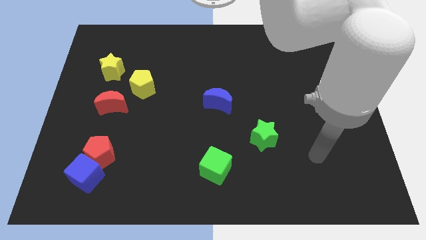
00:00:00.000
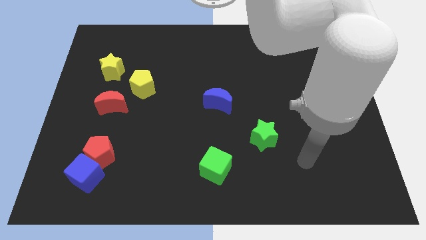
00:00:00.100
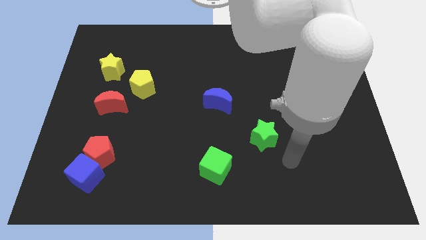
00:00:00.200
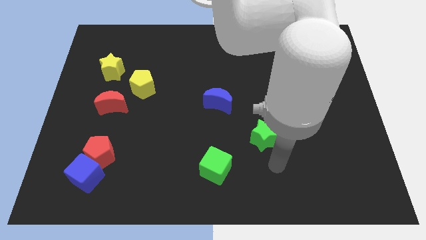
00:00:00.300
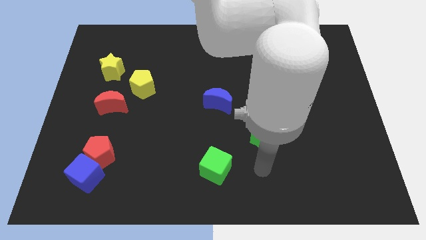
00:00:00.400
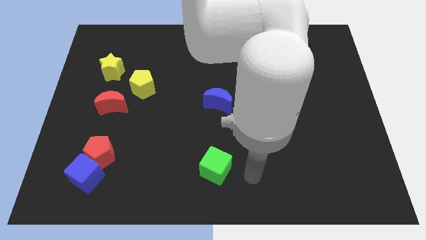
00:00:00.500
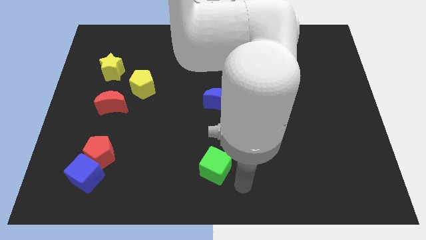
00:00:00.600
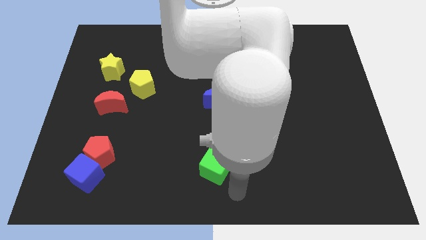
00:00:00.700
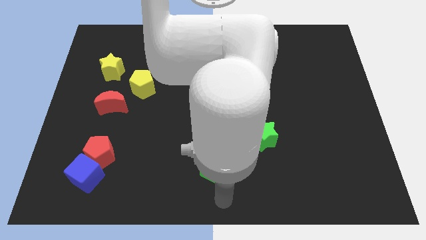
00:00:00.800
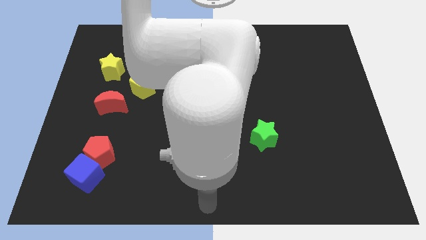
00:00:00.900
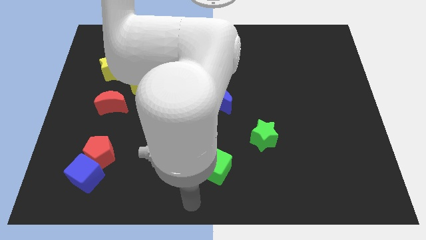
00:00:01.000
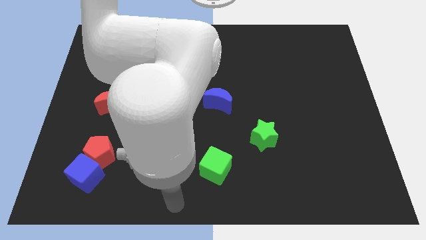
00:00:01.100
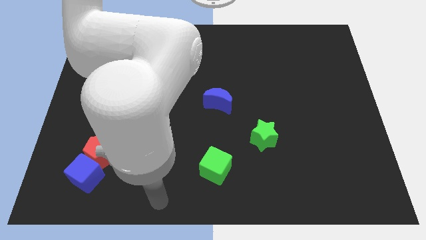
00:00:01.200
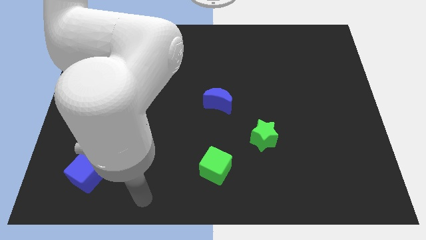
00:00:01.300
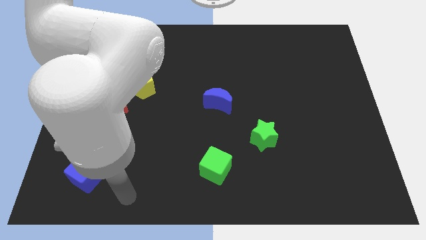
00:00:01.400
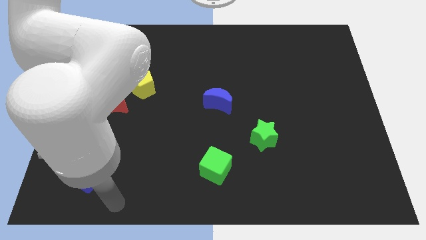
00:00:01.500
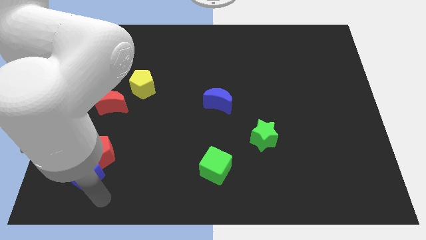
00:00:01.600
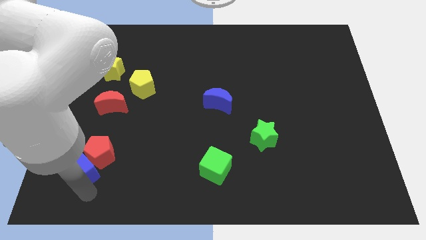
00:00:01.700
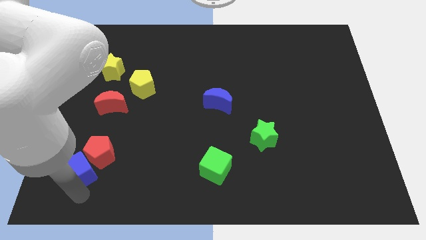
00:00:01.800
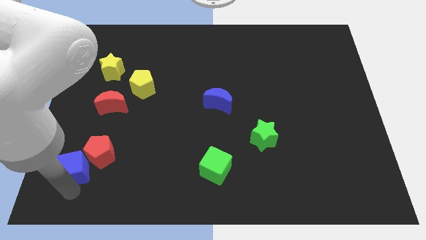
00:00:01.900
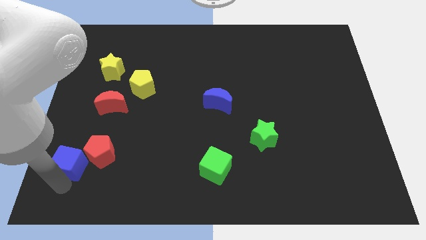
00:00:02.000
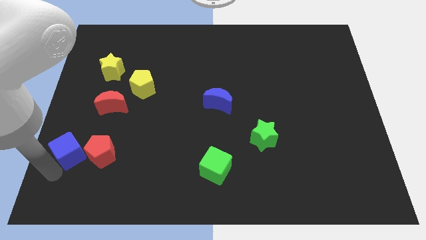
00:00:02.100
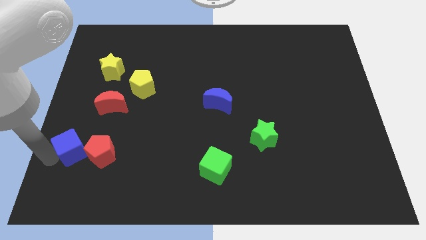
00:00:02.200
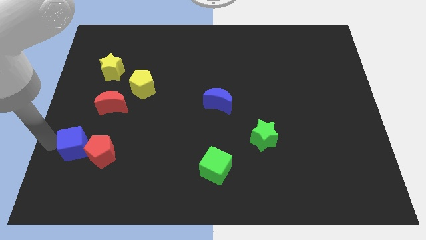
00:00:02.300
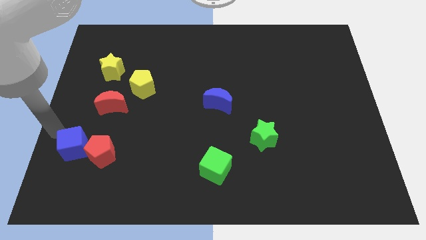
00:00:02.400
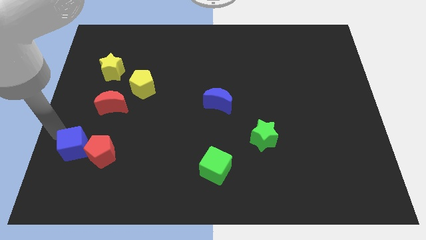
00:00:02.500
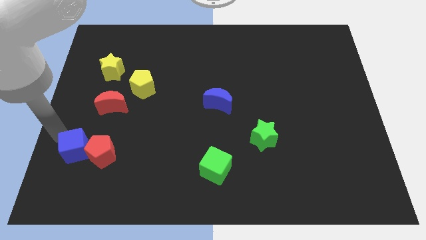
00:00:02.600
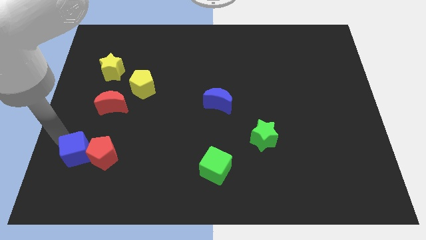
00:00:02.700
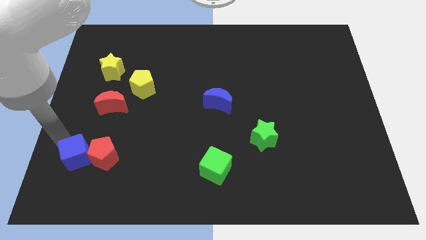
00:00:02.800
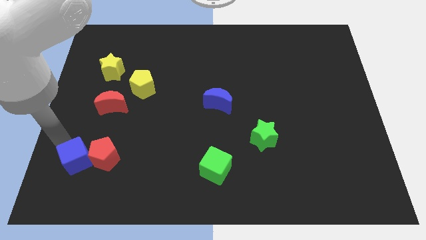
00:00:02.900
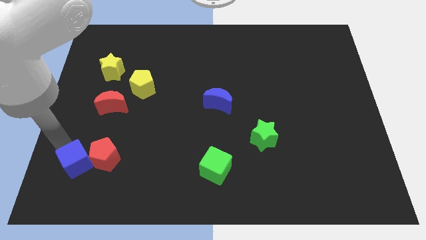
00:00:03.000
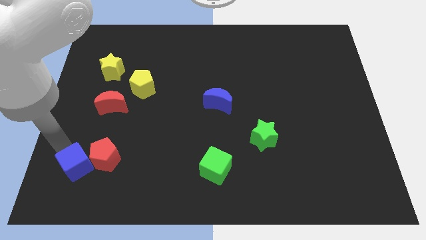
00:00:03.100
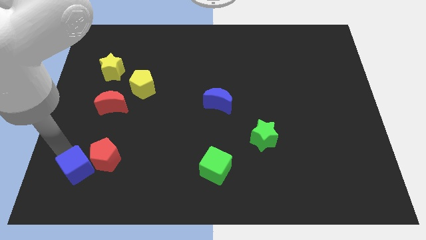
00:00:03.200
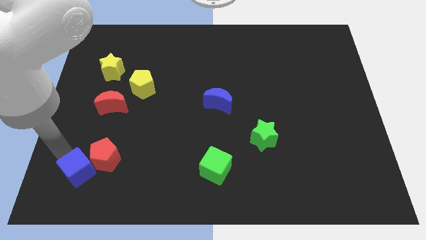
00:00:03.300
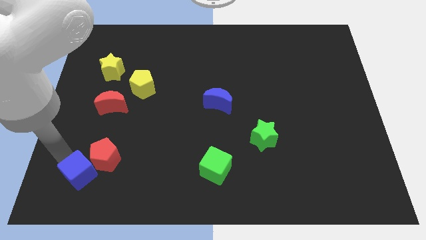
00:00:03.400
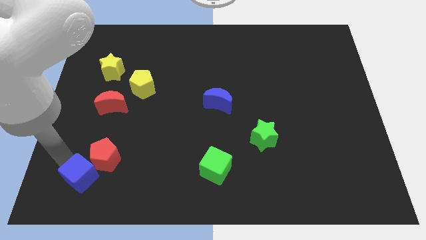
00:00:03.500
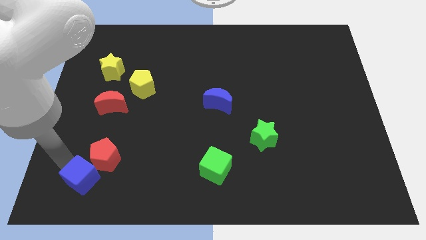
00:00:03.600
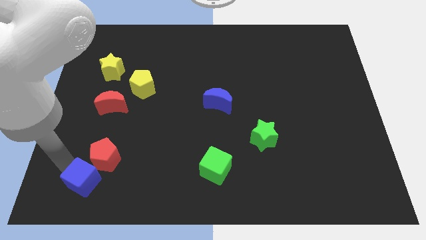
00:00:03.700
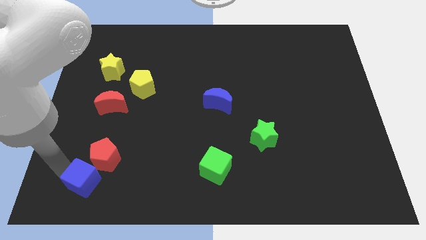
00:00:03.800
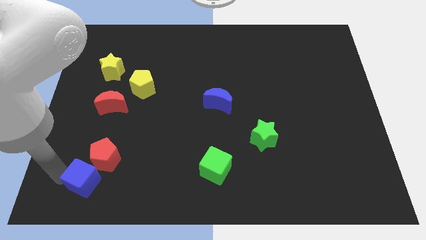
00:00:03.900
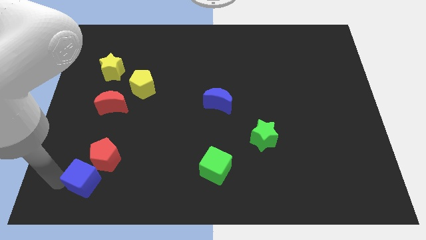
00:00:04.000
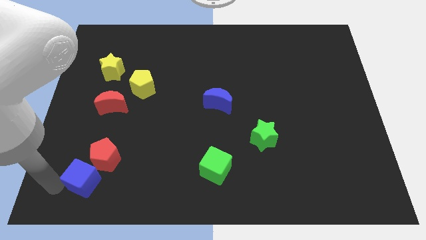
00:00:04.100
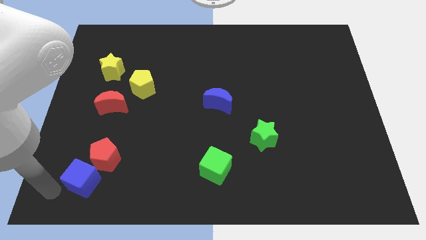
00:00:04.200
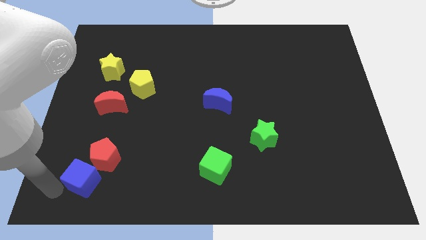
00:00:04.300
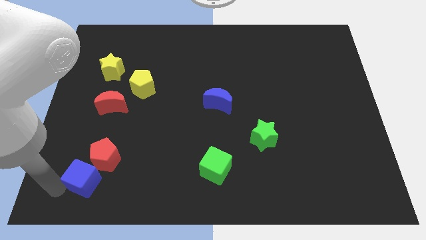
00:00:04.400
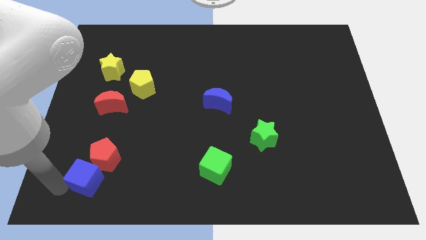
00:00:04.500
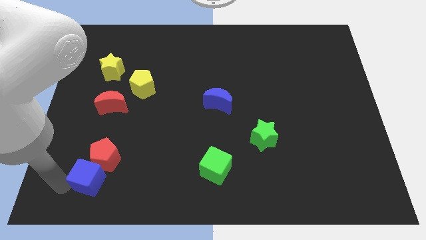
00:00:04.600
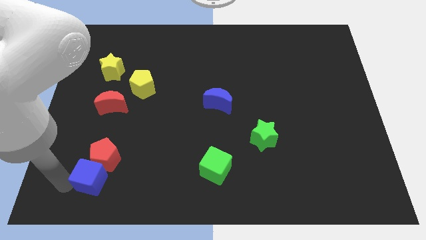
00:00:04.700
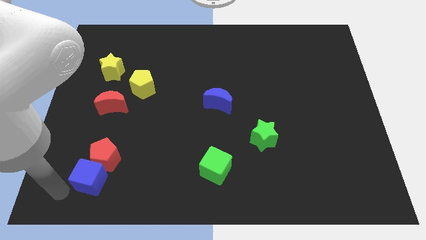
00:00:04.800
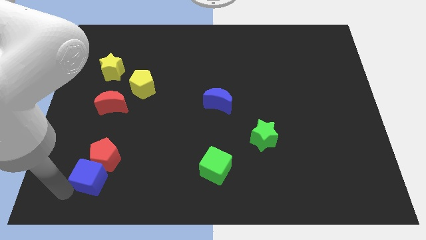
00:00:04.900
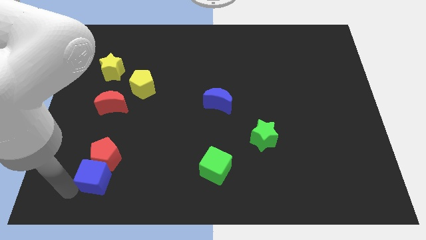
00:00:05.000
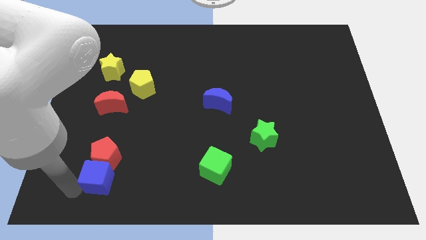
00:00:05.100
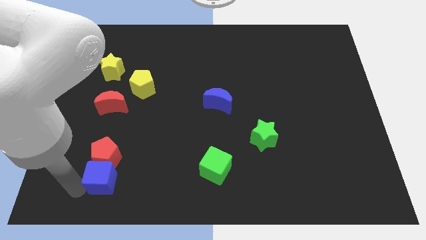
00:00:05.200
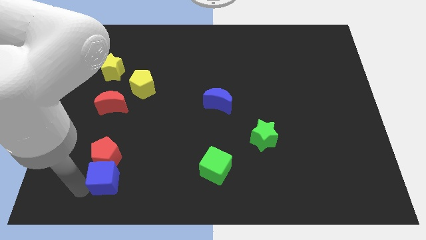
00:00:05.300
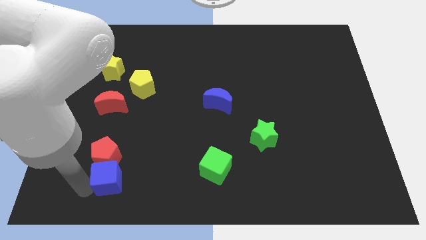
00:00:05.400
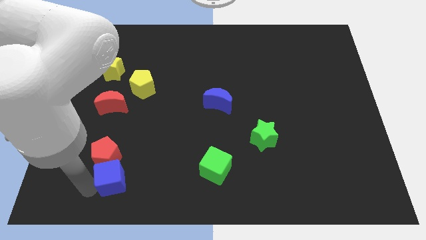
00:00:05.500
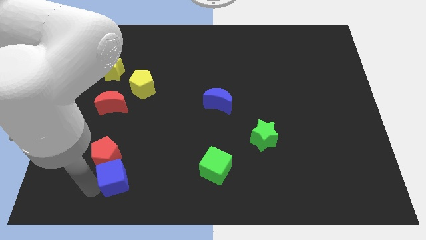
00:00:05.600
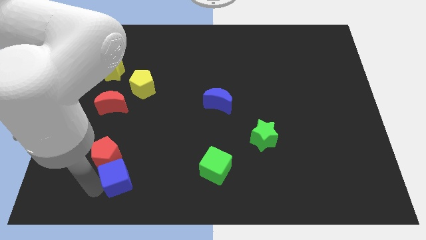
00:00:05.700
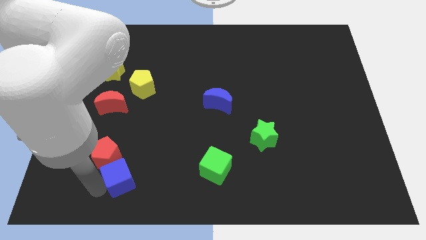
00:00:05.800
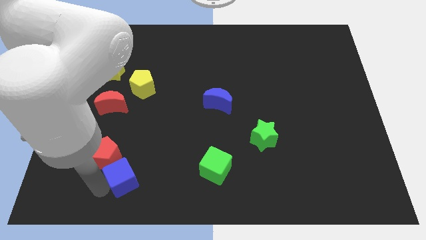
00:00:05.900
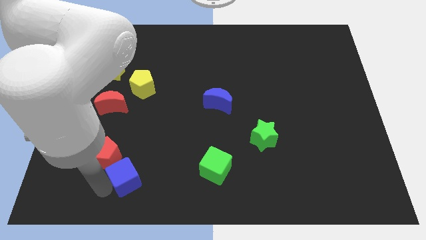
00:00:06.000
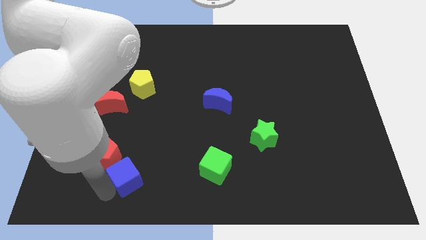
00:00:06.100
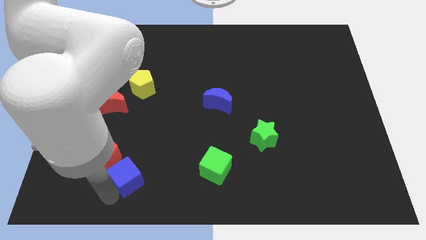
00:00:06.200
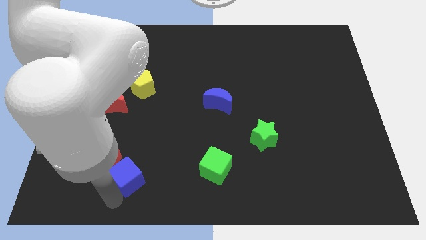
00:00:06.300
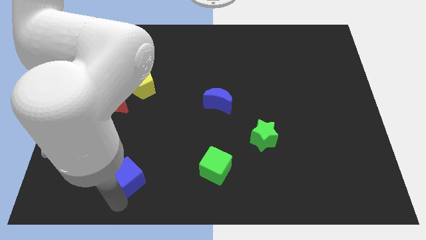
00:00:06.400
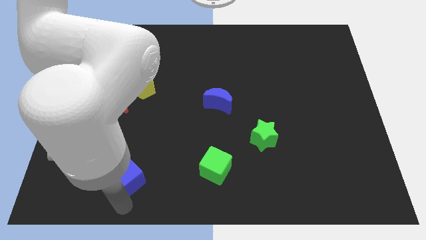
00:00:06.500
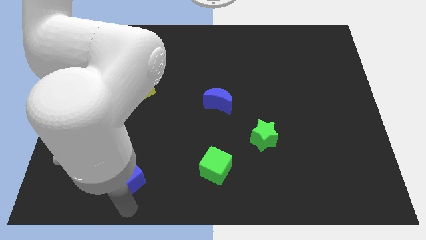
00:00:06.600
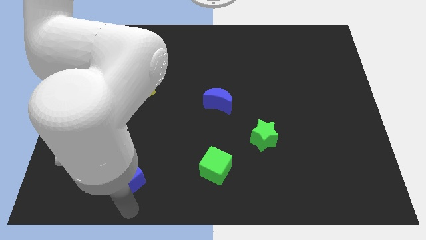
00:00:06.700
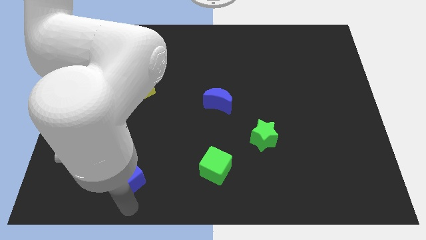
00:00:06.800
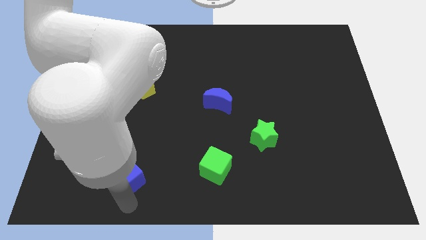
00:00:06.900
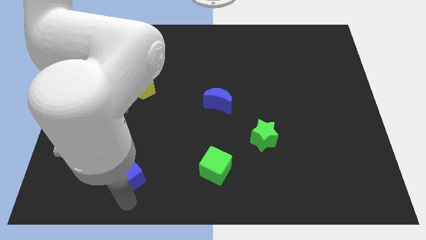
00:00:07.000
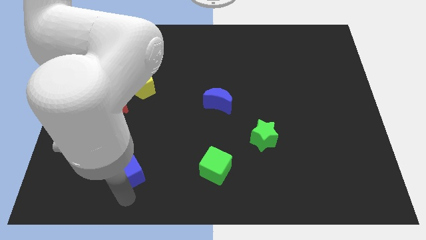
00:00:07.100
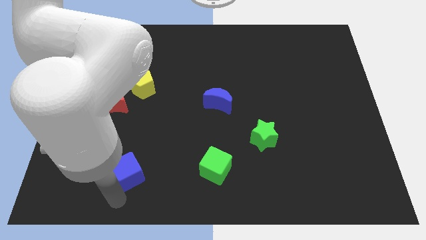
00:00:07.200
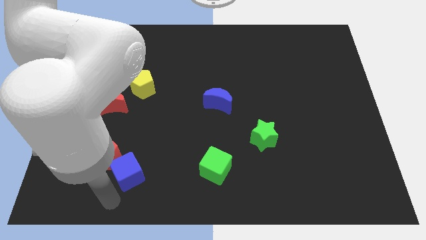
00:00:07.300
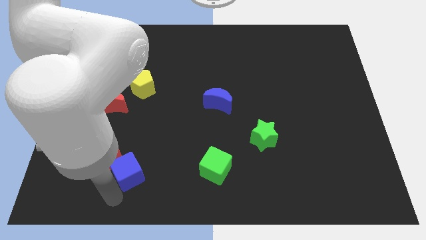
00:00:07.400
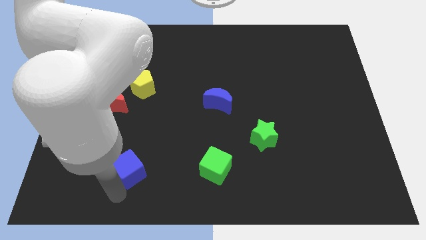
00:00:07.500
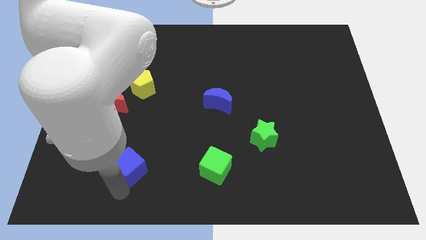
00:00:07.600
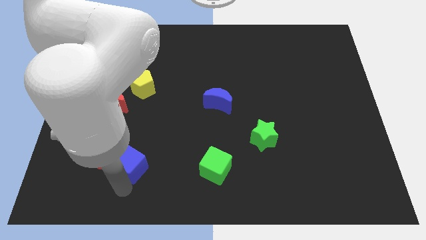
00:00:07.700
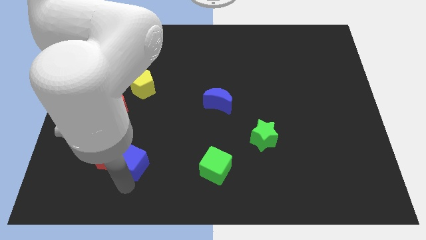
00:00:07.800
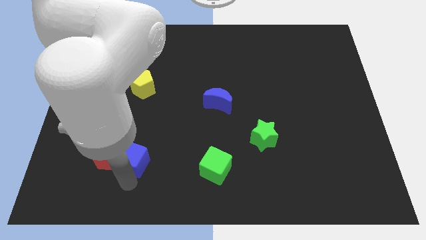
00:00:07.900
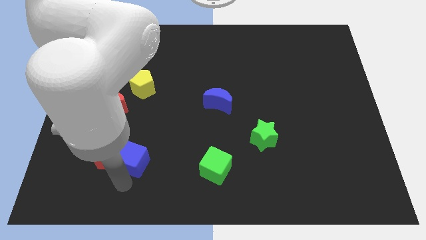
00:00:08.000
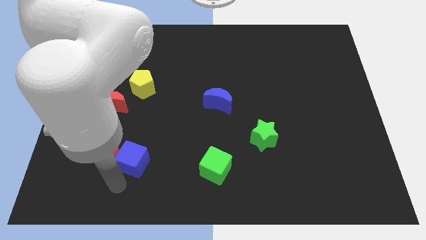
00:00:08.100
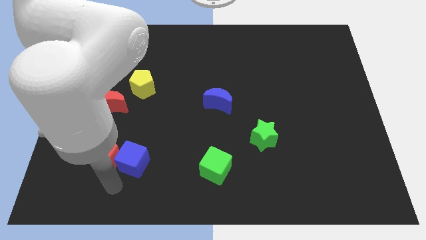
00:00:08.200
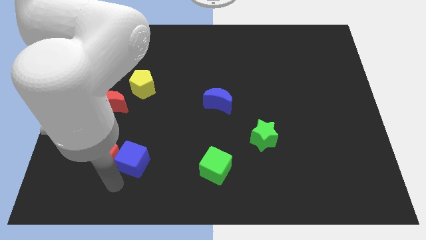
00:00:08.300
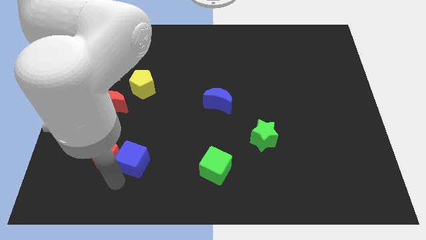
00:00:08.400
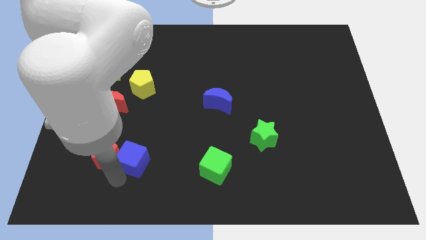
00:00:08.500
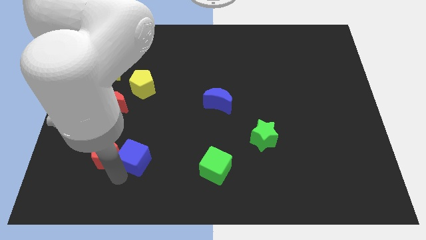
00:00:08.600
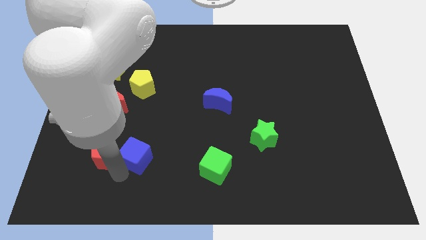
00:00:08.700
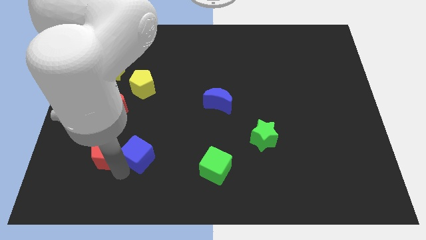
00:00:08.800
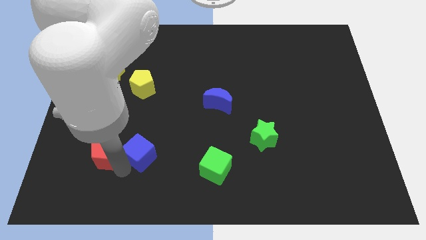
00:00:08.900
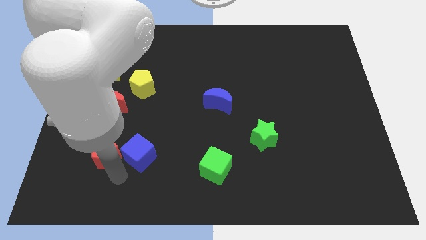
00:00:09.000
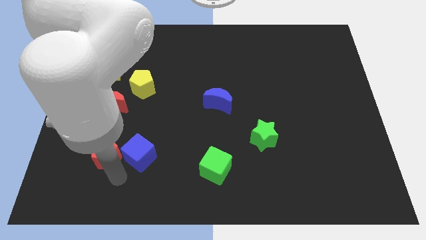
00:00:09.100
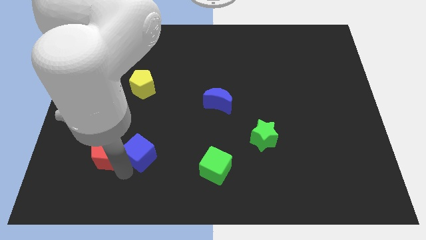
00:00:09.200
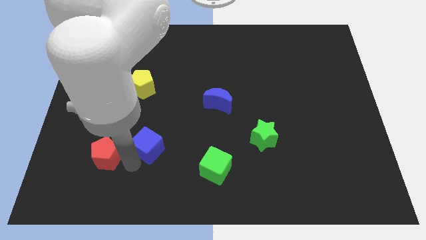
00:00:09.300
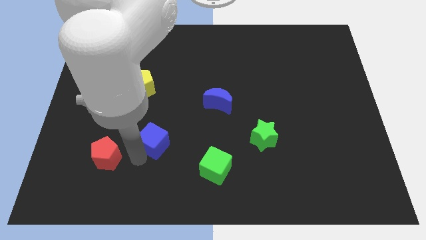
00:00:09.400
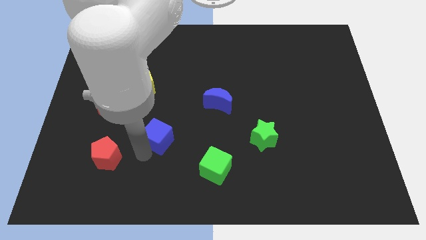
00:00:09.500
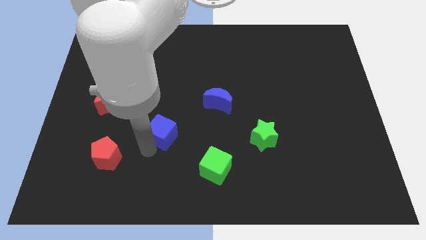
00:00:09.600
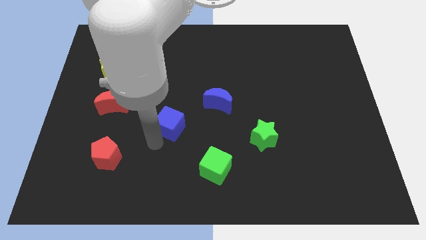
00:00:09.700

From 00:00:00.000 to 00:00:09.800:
push the blue cube up and right
